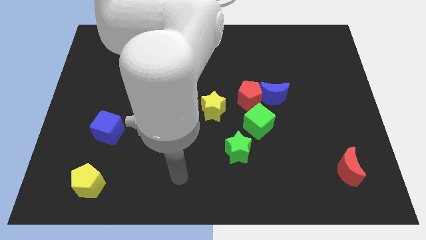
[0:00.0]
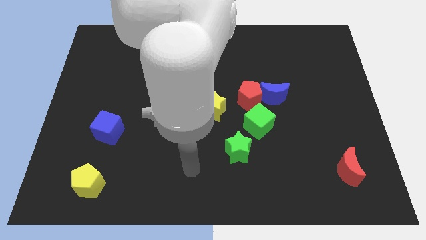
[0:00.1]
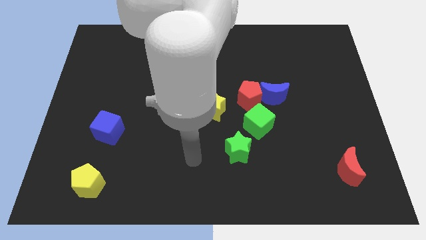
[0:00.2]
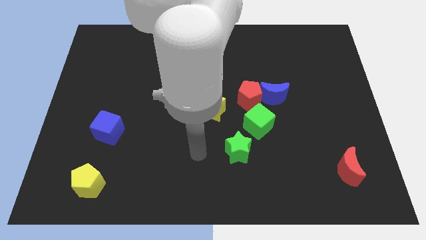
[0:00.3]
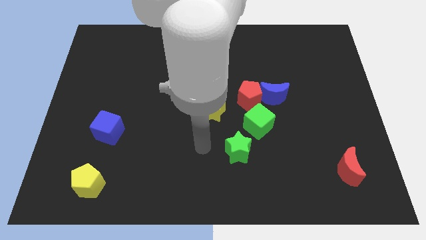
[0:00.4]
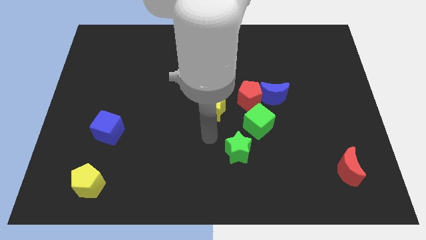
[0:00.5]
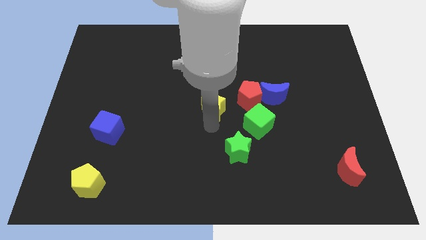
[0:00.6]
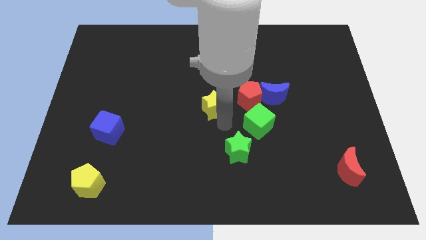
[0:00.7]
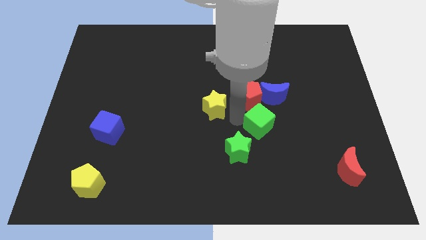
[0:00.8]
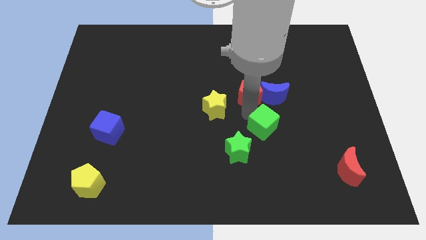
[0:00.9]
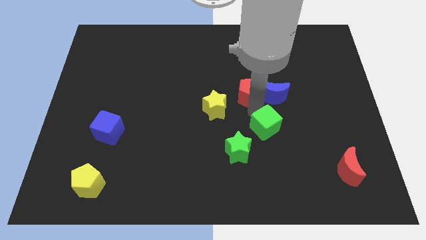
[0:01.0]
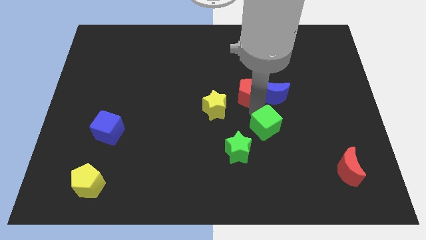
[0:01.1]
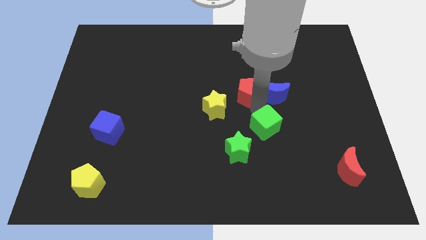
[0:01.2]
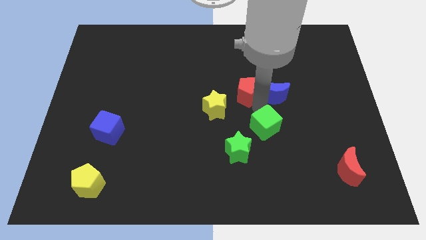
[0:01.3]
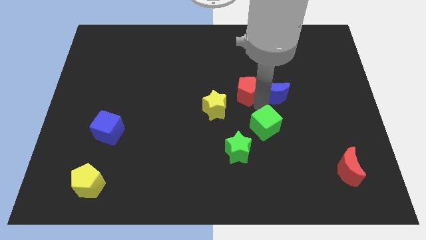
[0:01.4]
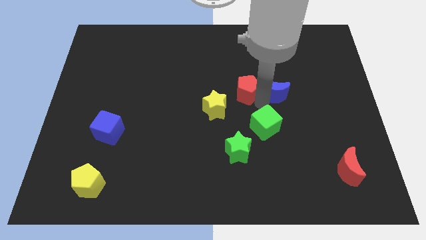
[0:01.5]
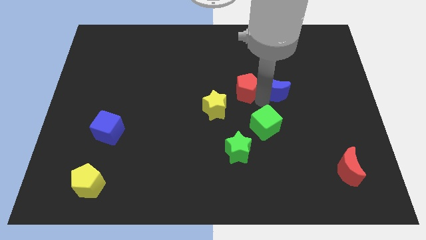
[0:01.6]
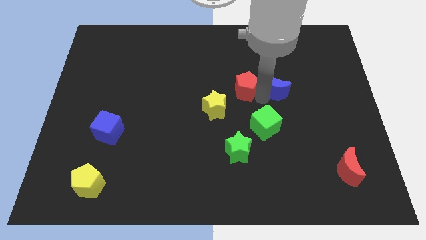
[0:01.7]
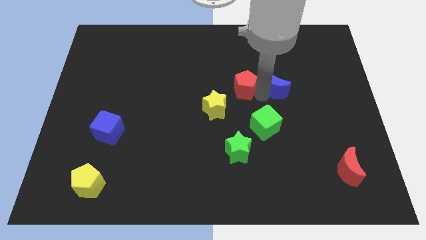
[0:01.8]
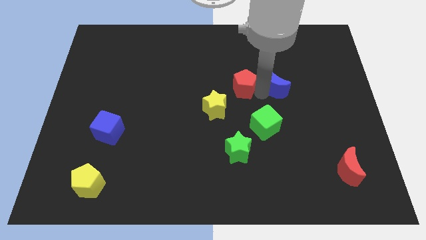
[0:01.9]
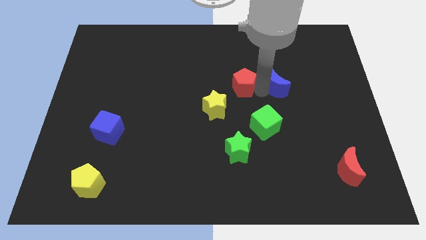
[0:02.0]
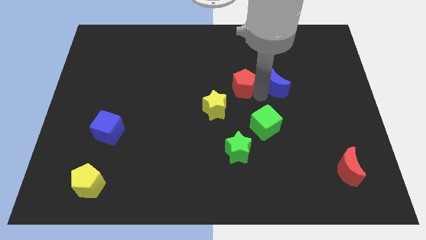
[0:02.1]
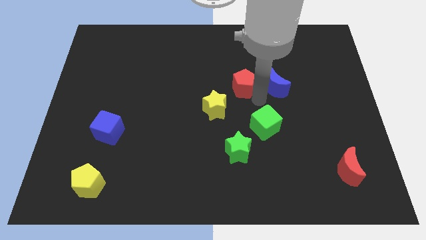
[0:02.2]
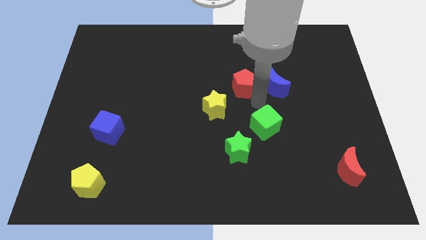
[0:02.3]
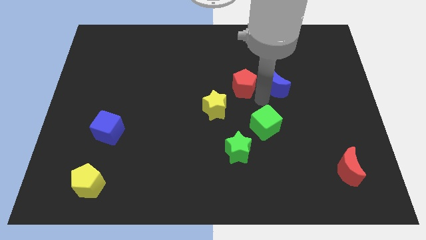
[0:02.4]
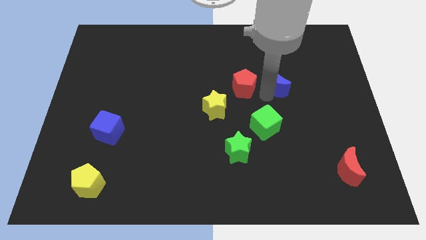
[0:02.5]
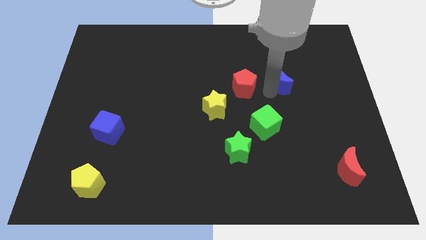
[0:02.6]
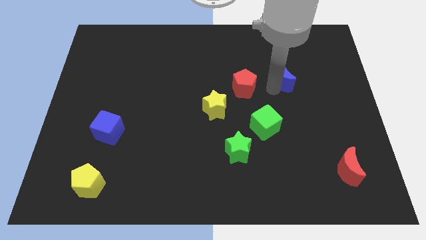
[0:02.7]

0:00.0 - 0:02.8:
separate the blue moon from the red pentagon and green cube

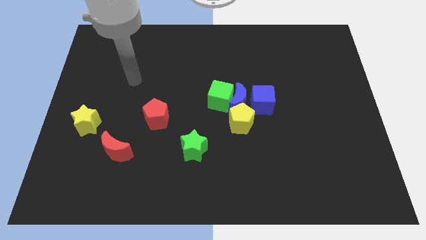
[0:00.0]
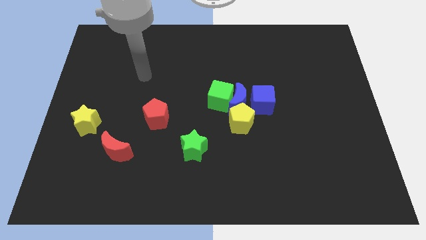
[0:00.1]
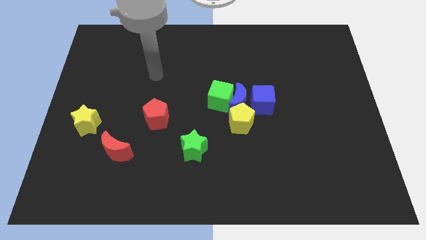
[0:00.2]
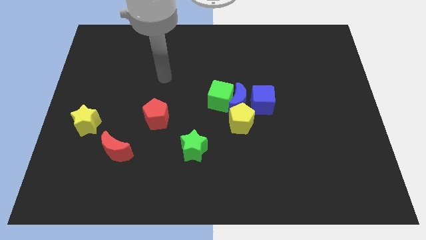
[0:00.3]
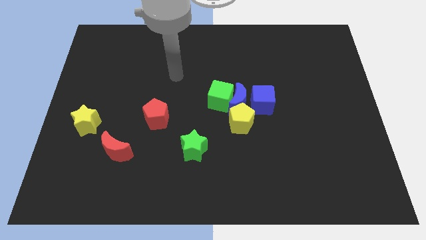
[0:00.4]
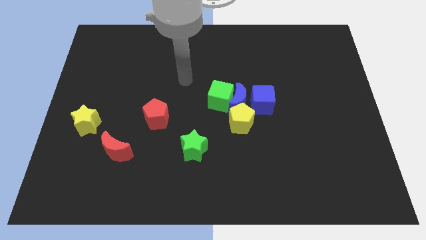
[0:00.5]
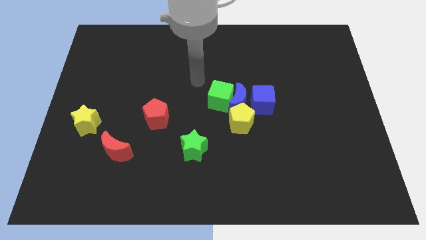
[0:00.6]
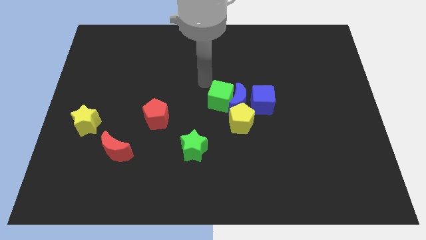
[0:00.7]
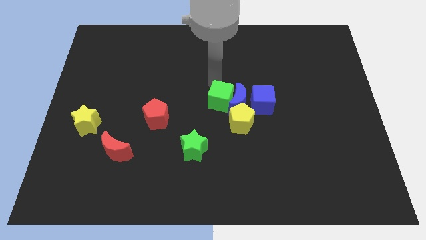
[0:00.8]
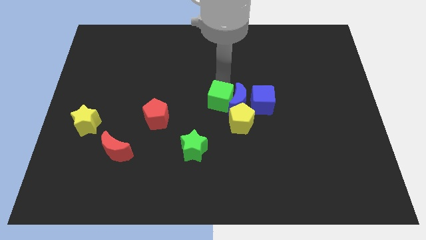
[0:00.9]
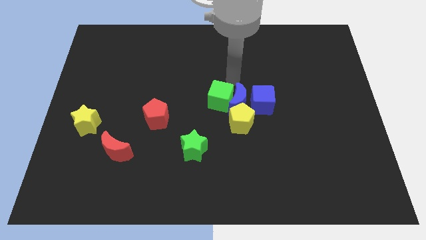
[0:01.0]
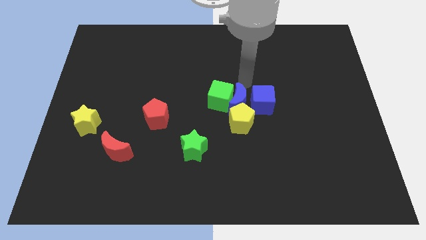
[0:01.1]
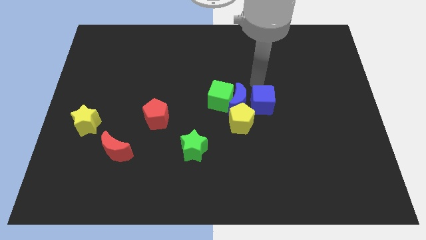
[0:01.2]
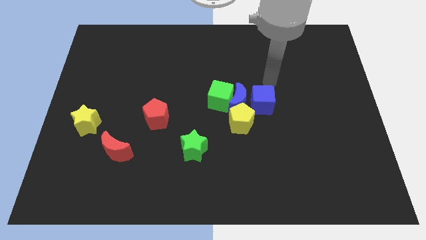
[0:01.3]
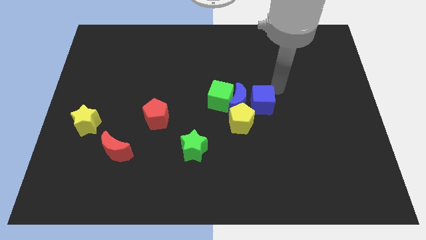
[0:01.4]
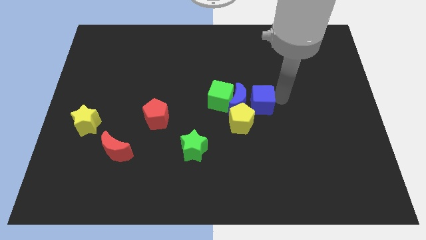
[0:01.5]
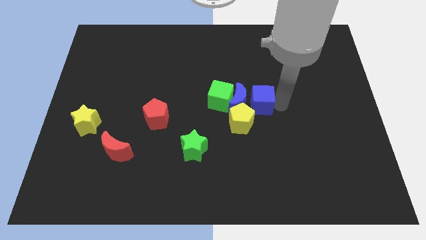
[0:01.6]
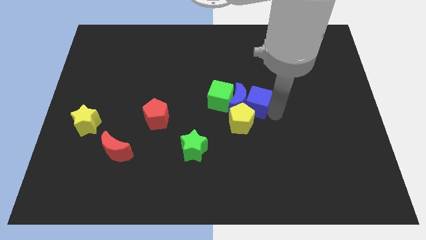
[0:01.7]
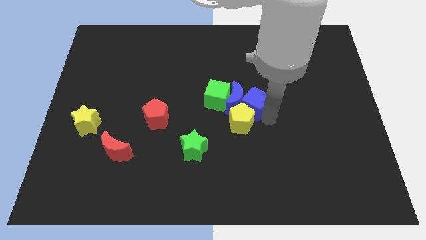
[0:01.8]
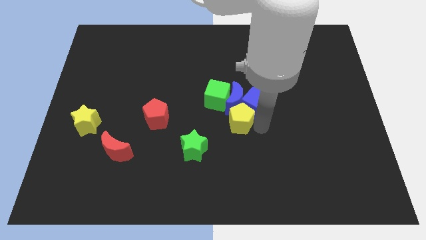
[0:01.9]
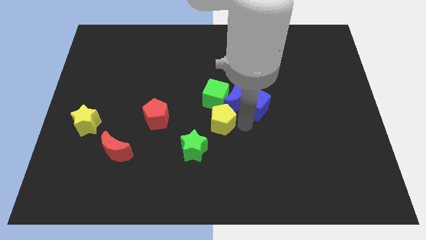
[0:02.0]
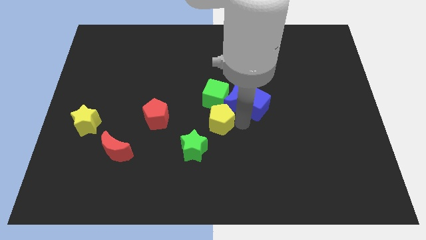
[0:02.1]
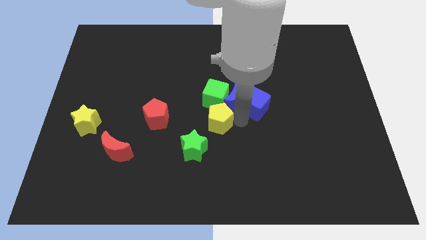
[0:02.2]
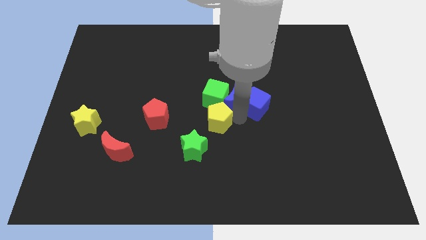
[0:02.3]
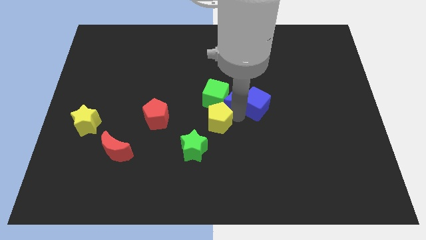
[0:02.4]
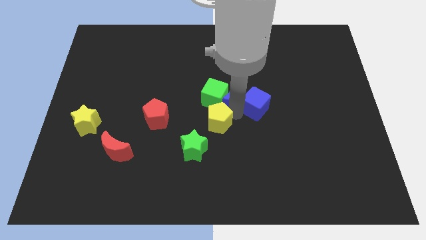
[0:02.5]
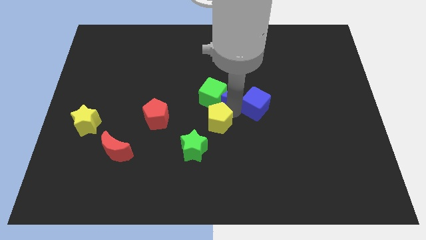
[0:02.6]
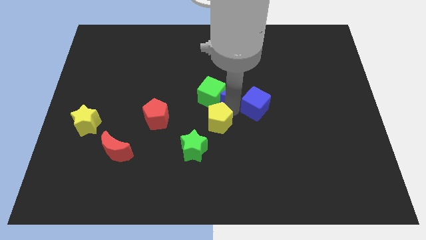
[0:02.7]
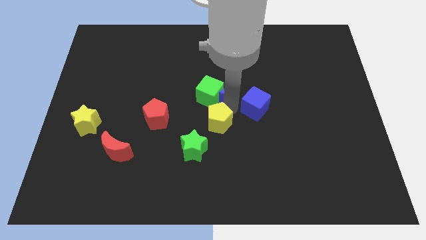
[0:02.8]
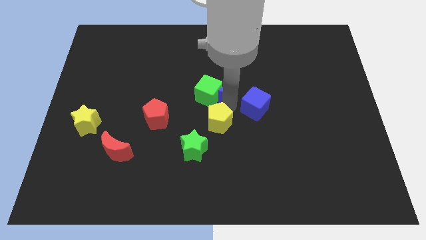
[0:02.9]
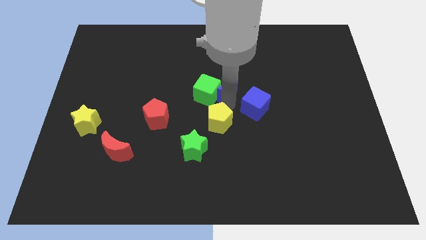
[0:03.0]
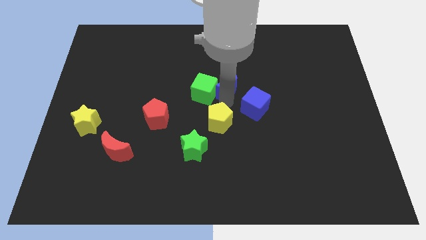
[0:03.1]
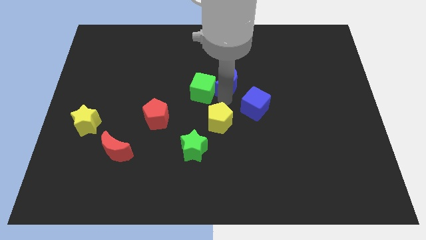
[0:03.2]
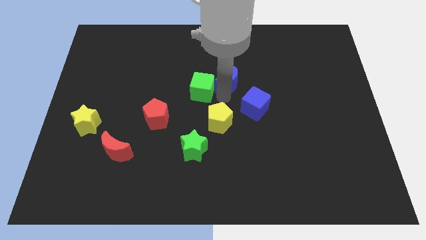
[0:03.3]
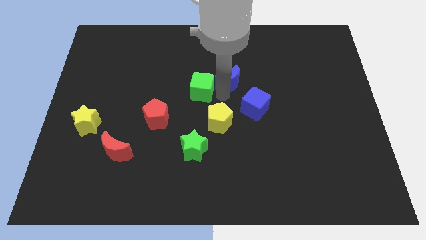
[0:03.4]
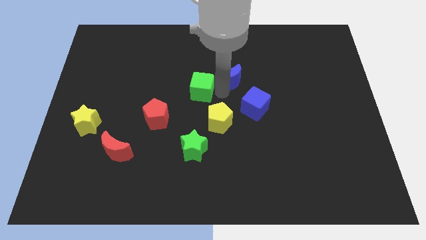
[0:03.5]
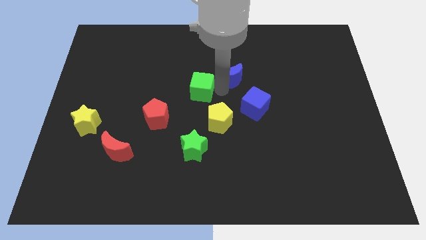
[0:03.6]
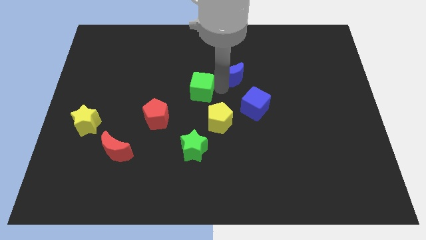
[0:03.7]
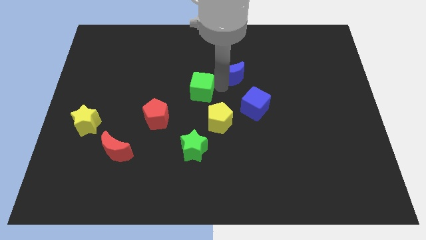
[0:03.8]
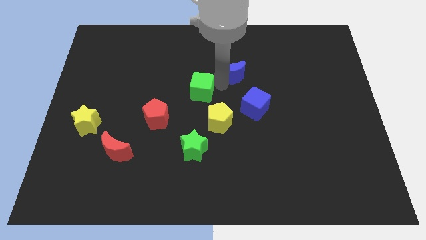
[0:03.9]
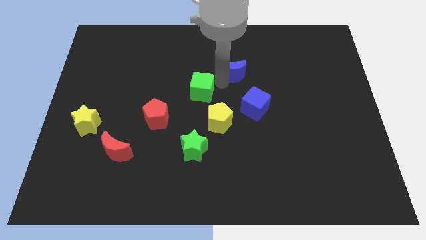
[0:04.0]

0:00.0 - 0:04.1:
separate the blue moon from the group

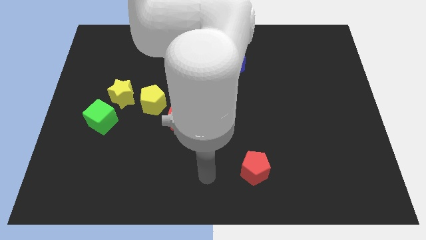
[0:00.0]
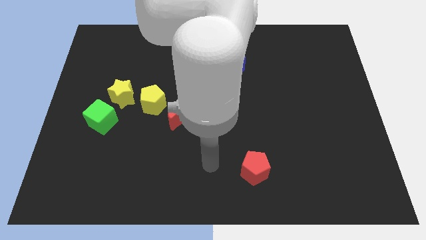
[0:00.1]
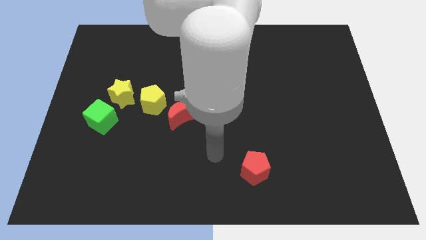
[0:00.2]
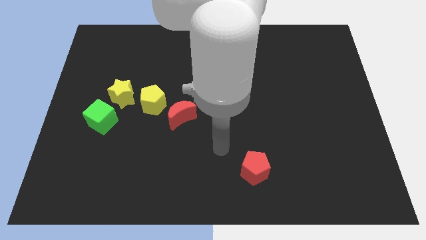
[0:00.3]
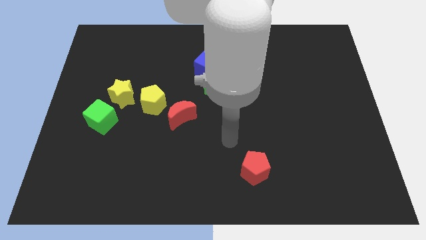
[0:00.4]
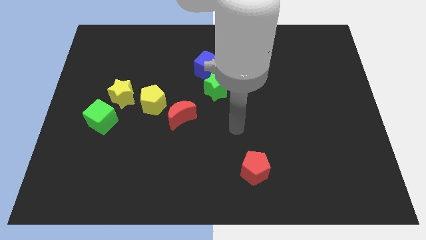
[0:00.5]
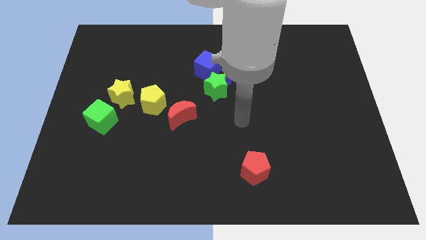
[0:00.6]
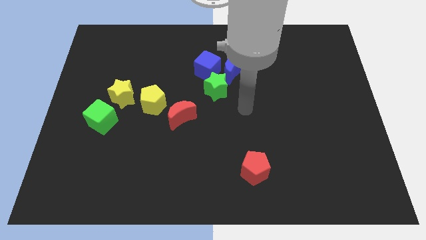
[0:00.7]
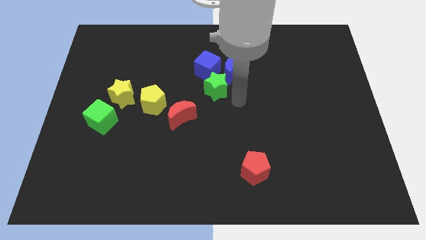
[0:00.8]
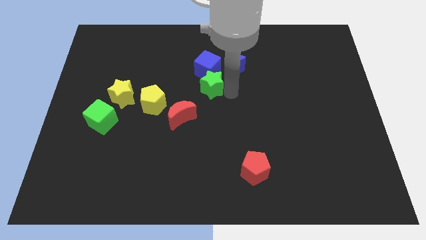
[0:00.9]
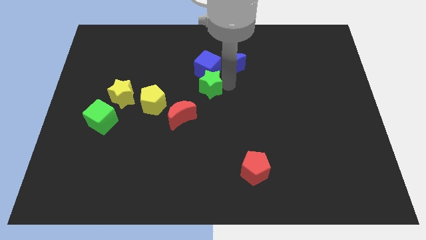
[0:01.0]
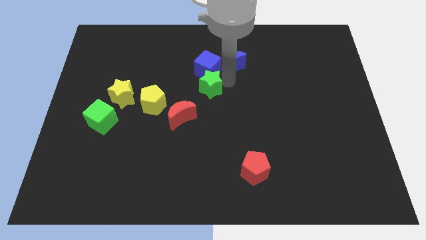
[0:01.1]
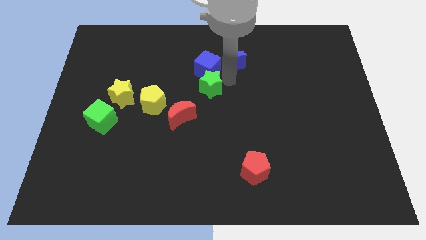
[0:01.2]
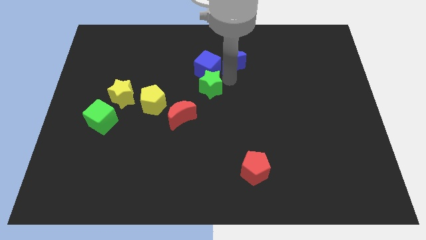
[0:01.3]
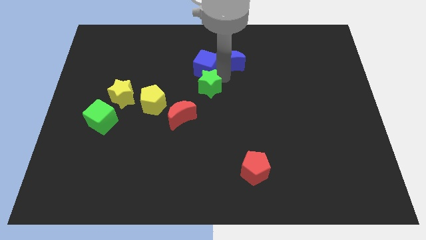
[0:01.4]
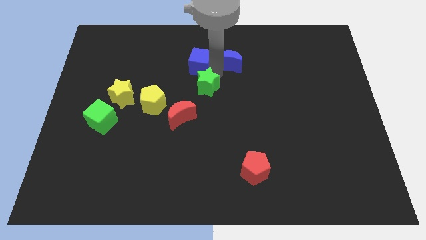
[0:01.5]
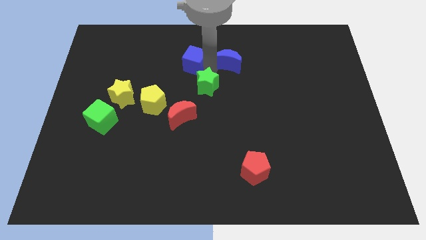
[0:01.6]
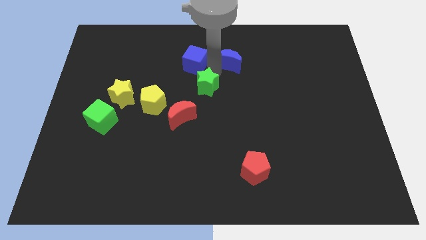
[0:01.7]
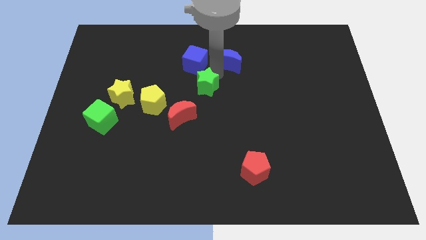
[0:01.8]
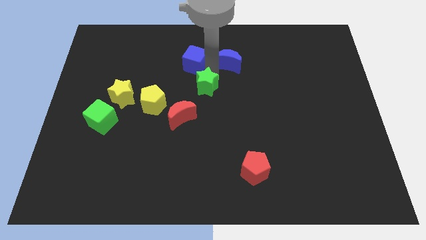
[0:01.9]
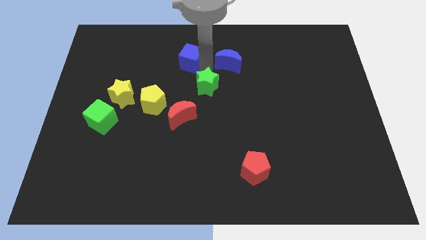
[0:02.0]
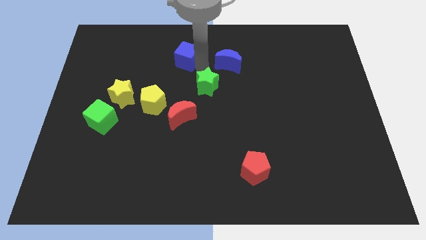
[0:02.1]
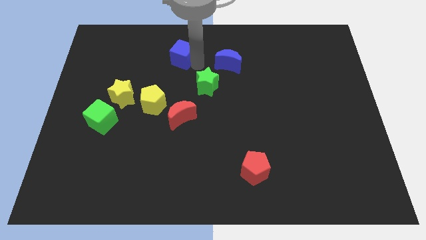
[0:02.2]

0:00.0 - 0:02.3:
pull the blue cube apart from the blue moon and green star

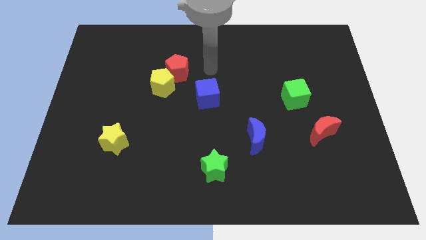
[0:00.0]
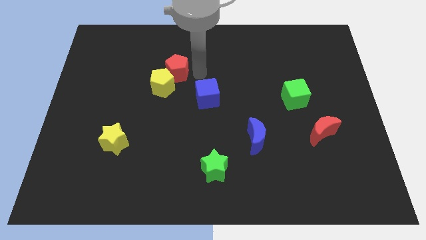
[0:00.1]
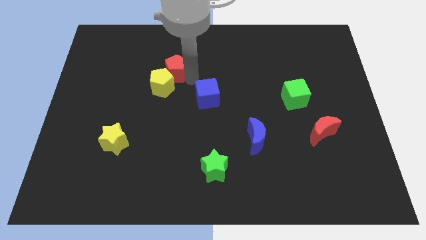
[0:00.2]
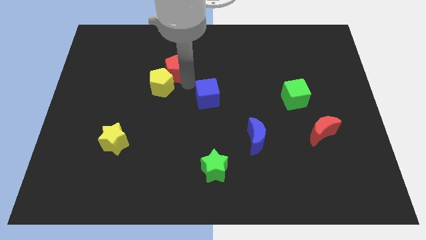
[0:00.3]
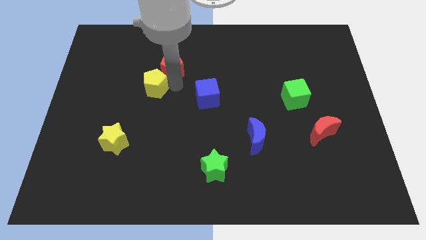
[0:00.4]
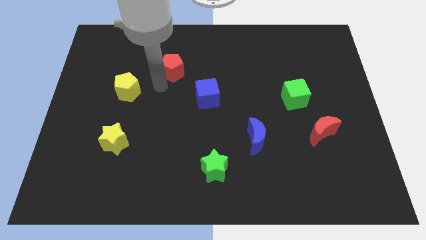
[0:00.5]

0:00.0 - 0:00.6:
separate the red pentagon from the yellow pentagon
